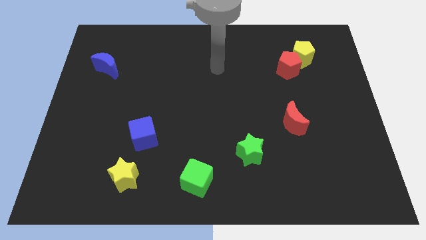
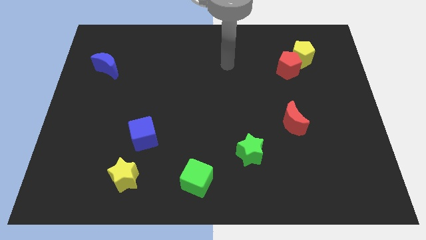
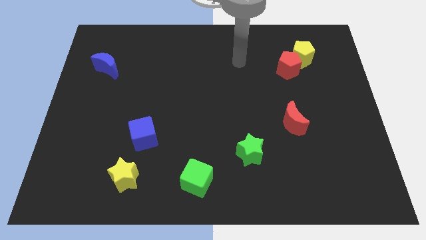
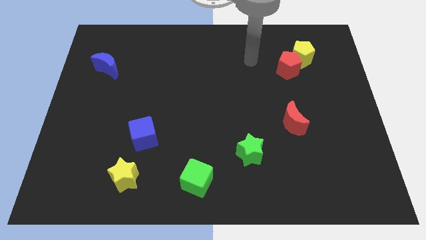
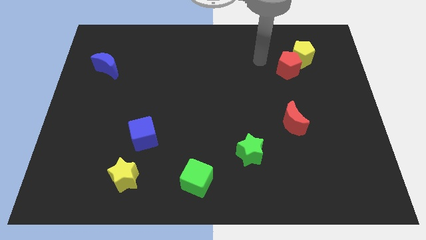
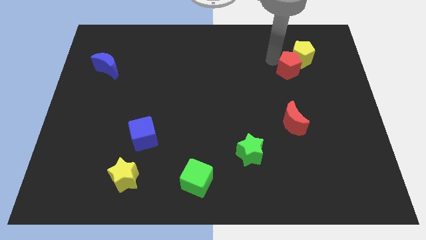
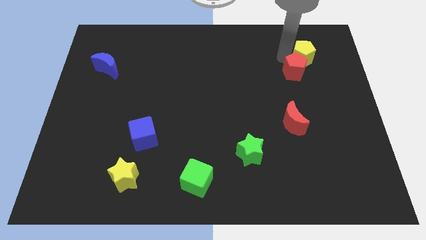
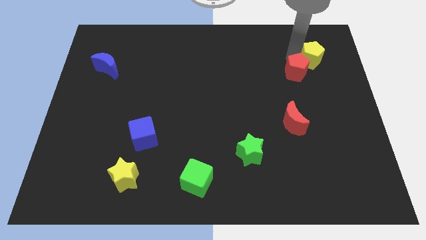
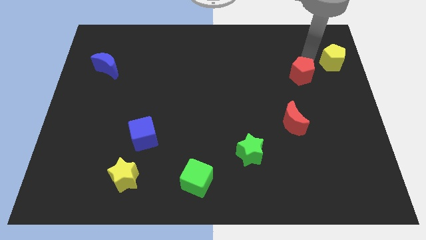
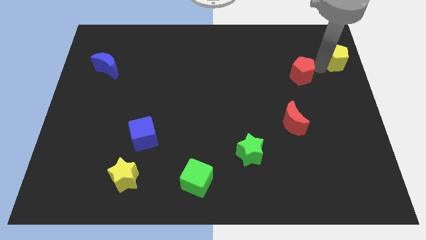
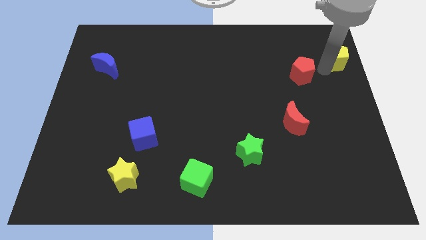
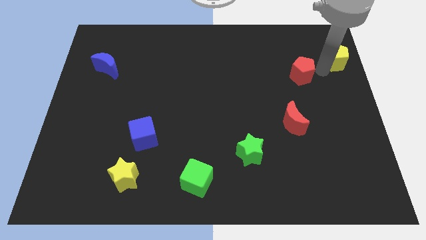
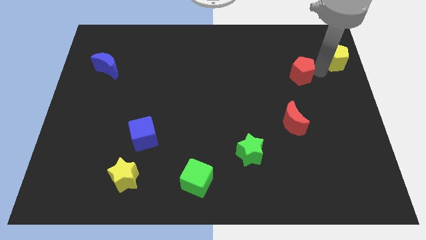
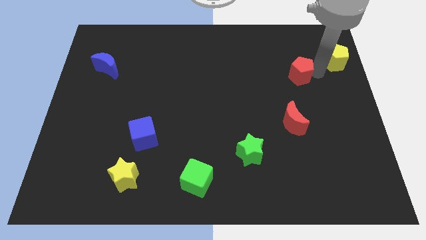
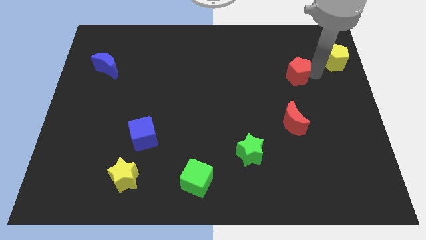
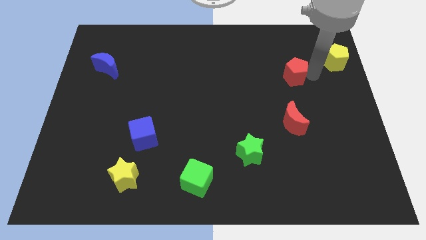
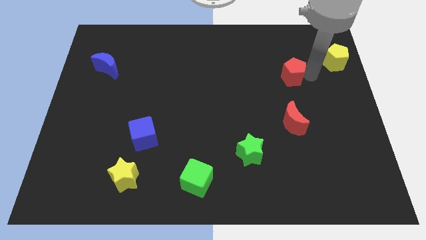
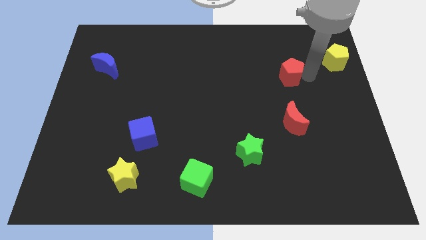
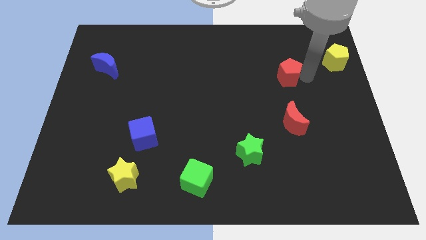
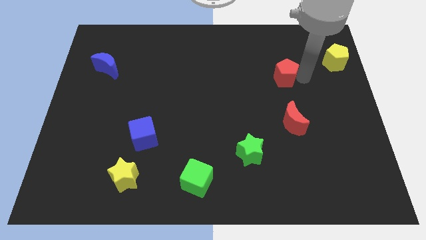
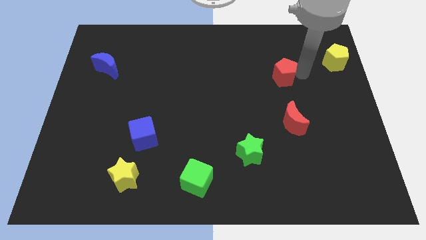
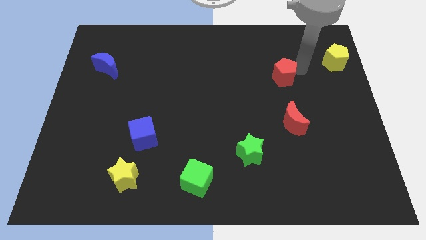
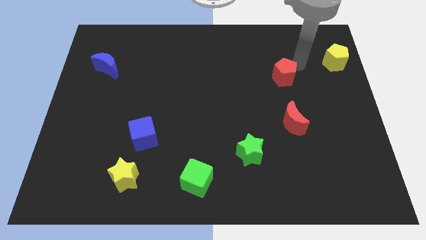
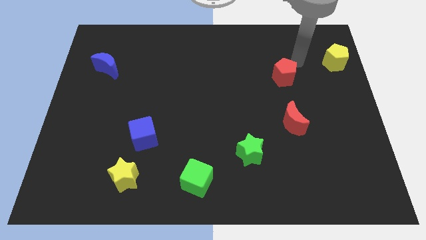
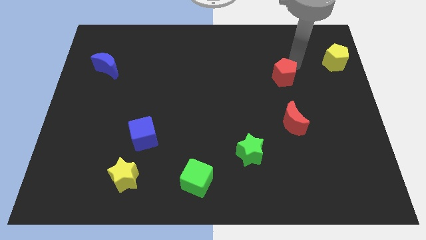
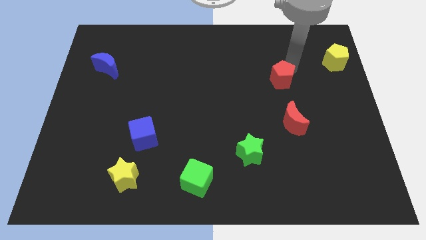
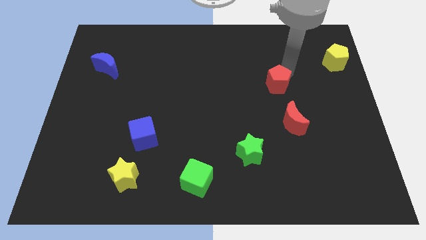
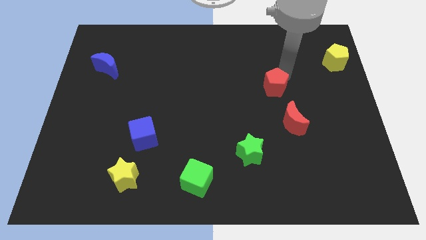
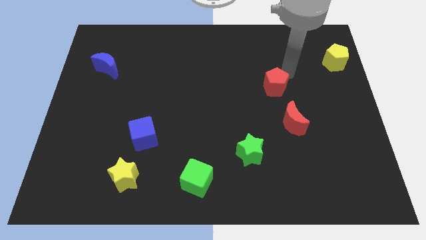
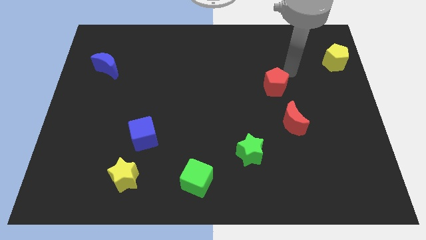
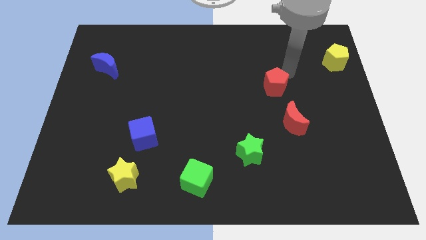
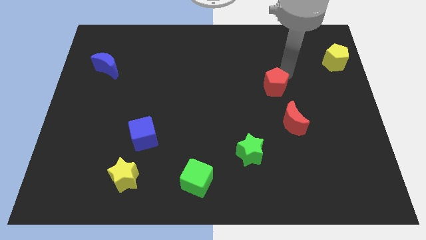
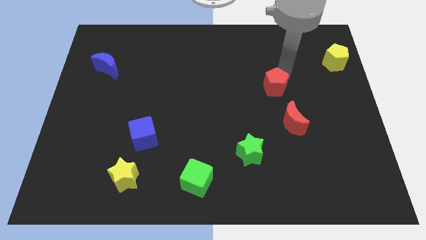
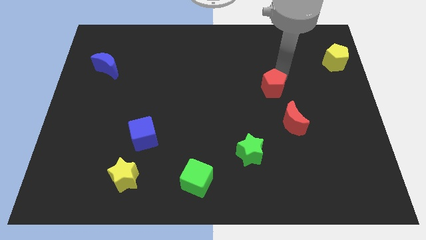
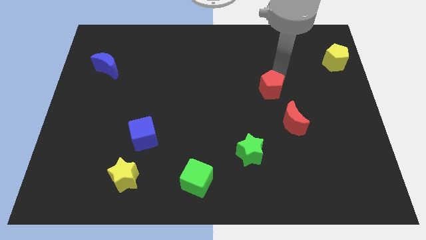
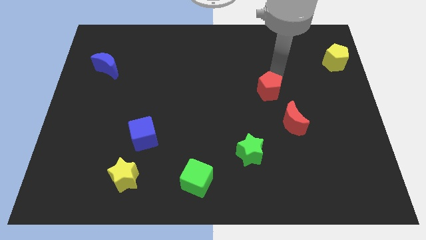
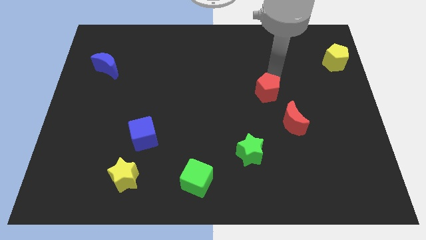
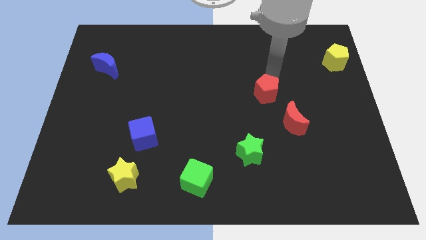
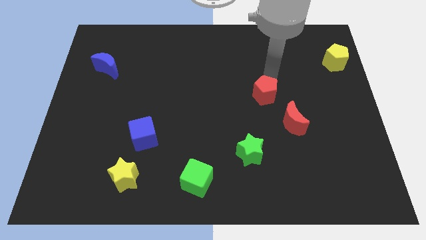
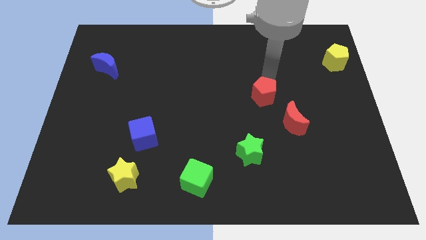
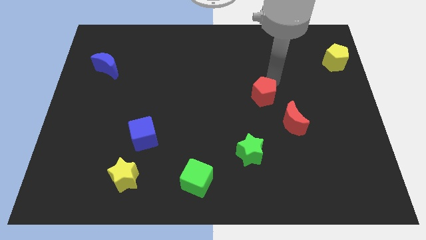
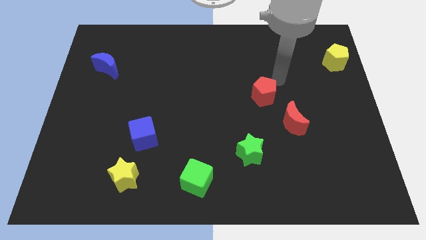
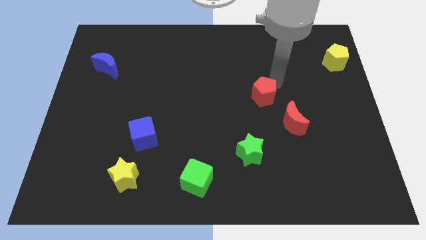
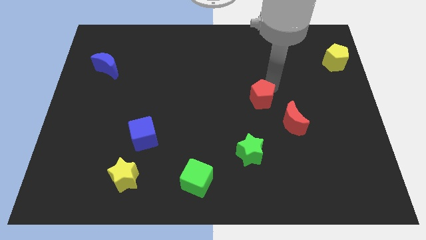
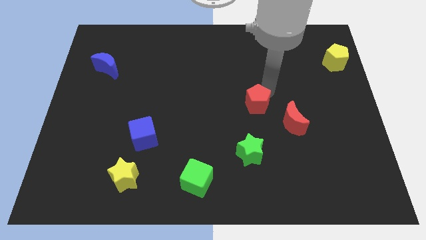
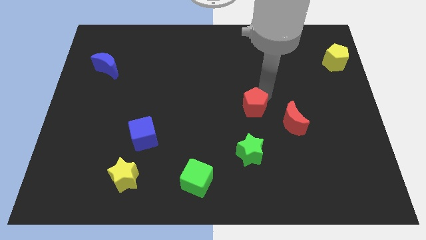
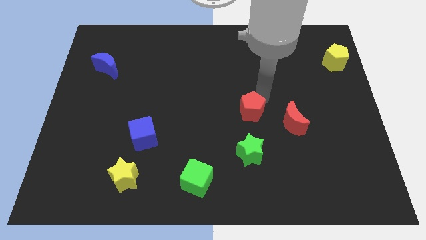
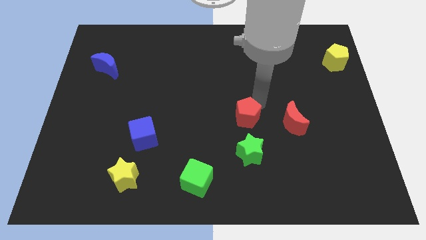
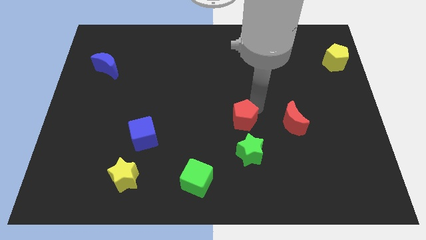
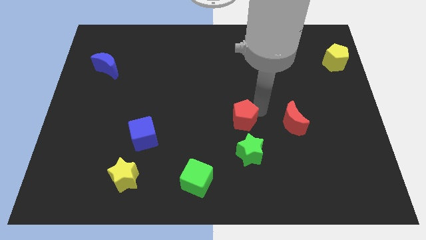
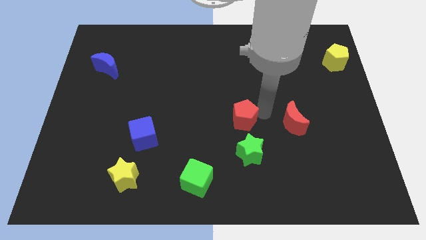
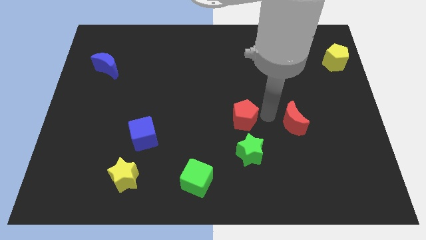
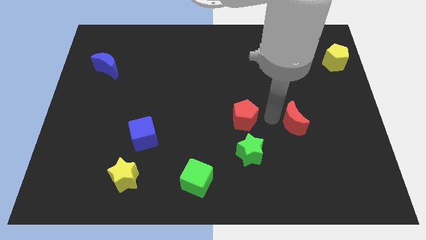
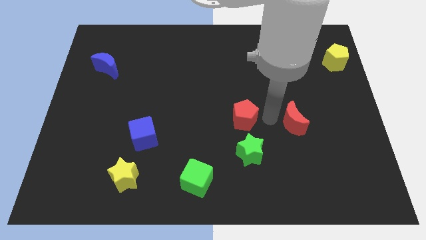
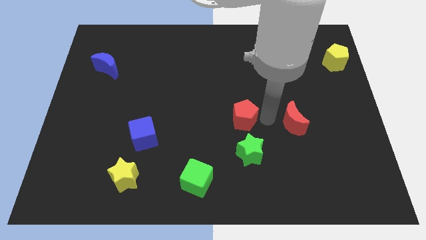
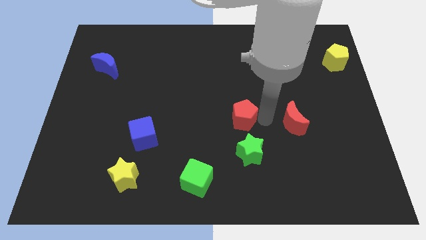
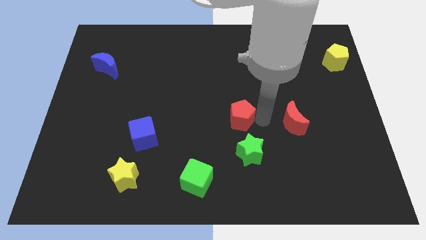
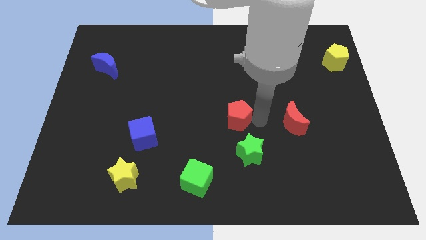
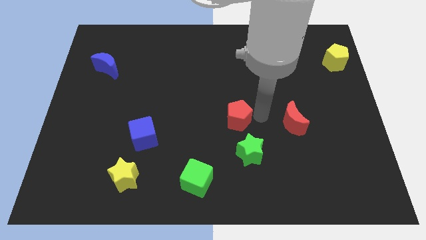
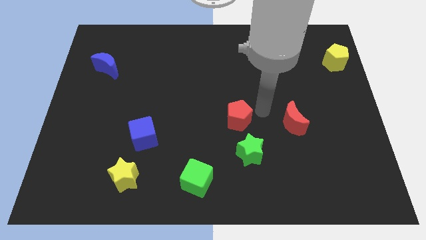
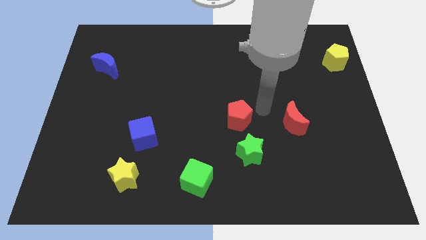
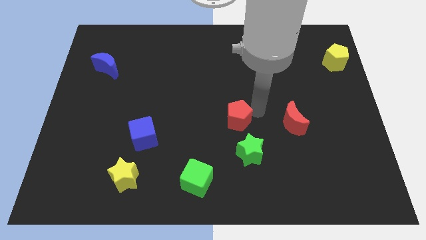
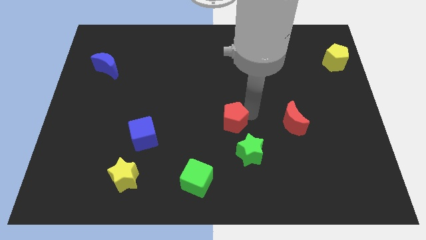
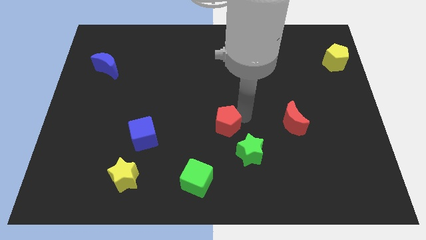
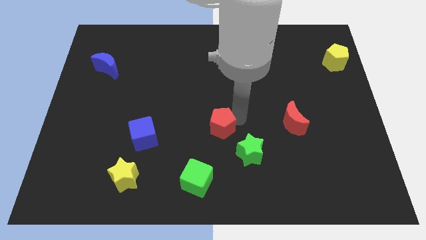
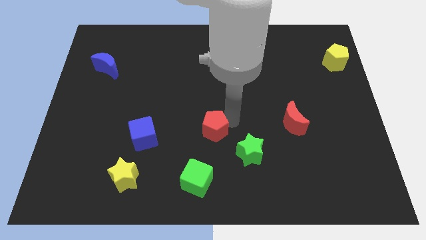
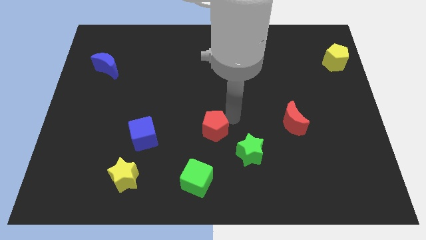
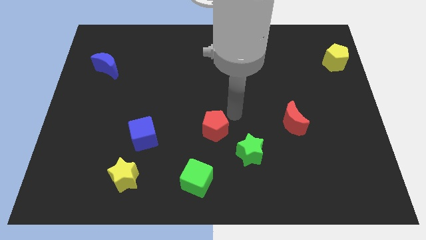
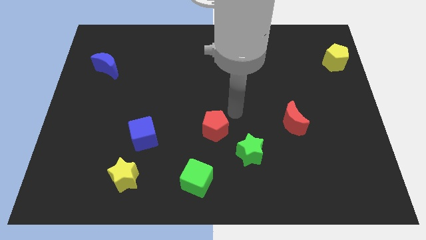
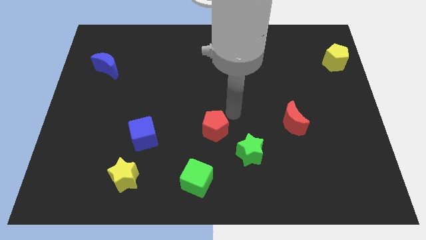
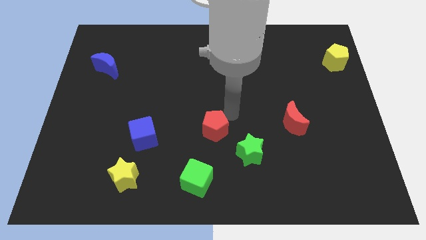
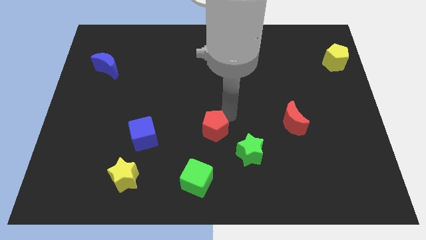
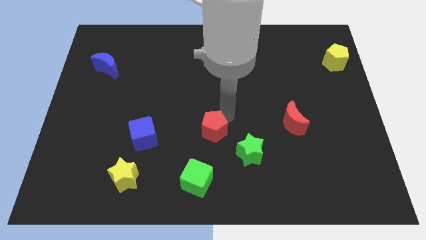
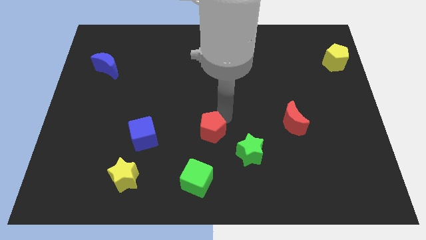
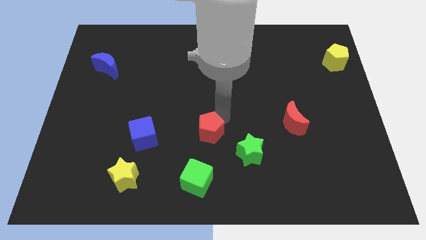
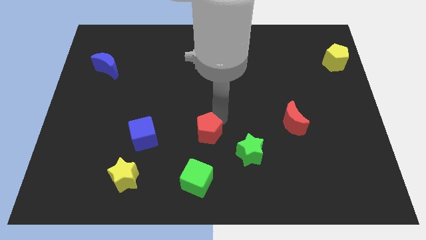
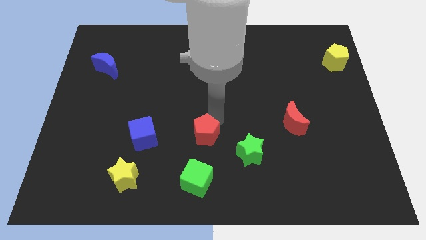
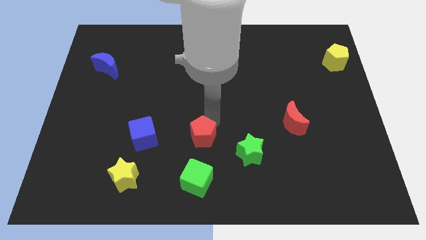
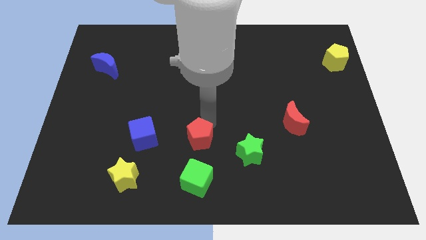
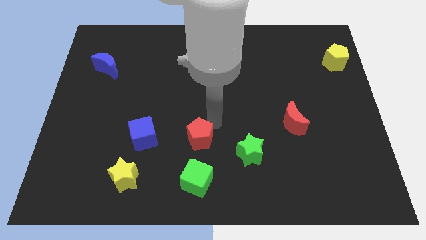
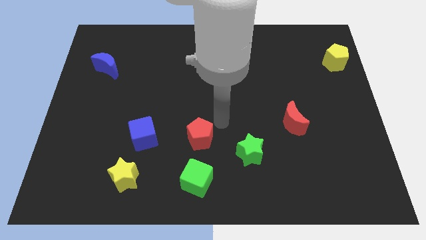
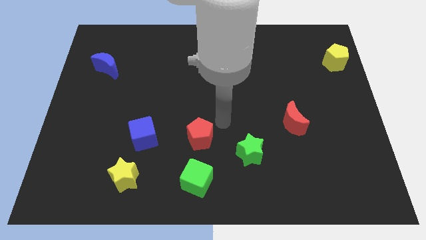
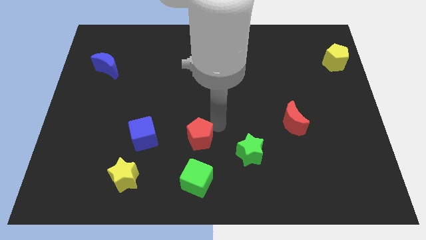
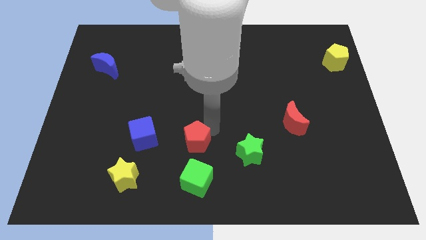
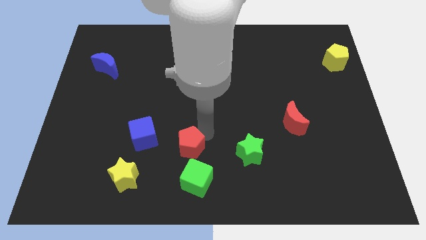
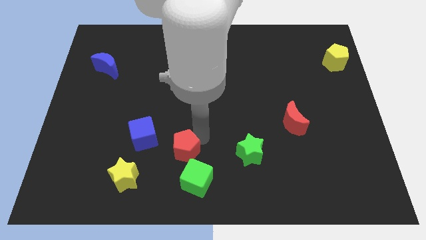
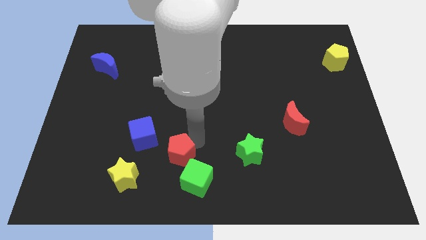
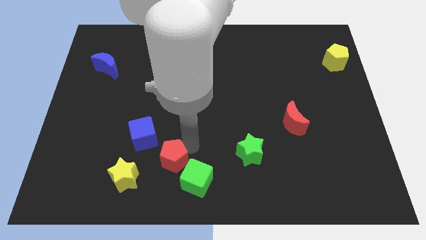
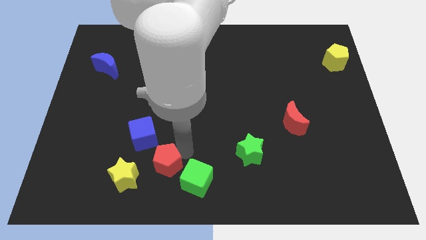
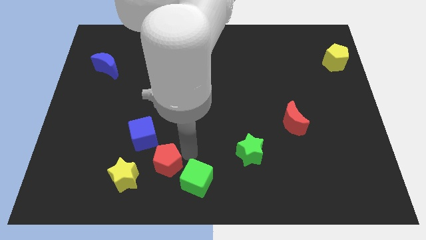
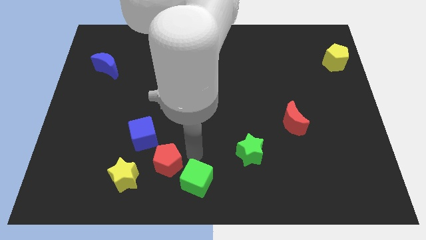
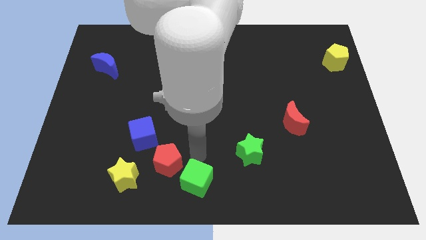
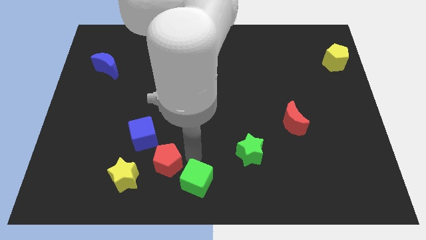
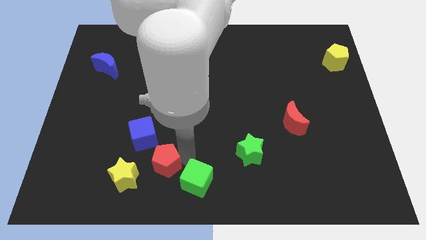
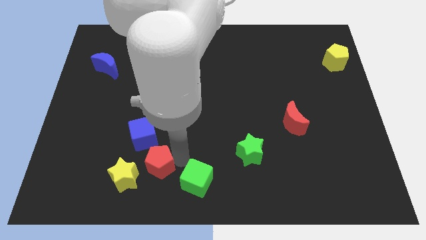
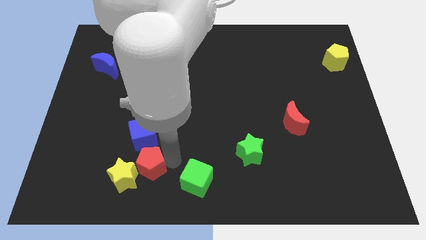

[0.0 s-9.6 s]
move the red pentagon to the yellow star
